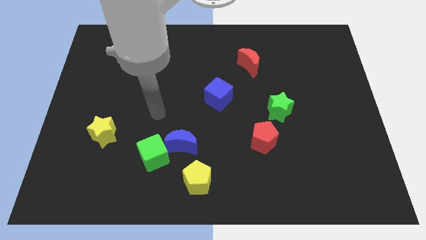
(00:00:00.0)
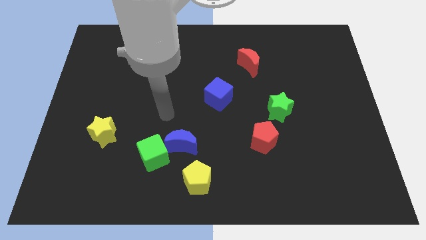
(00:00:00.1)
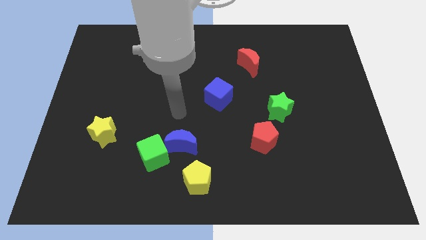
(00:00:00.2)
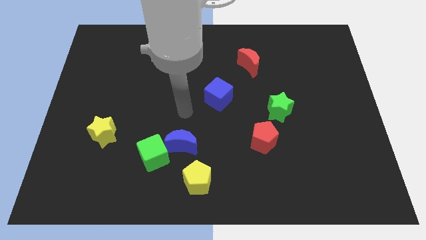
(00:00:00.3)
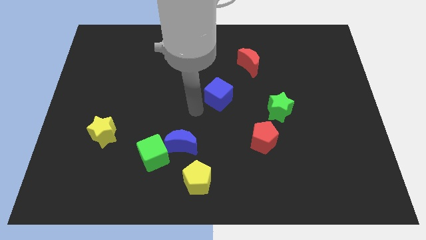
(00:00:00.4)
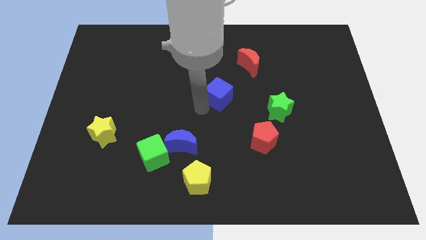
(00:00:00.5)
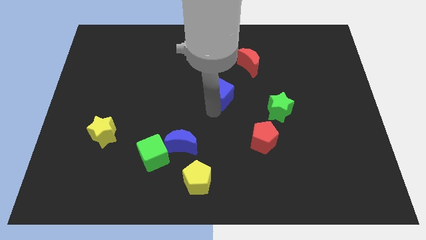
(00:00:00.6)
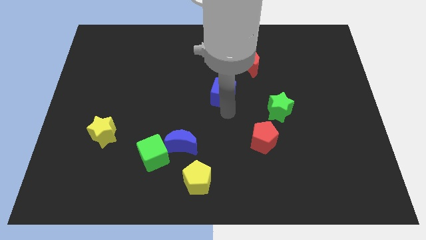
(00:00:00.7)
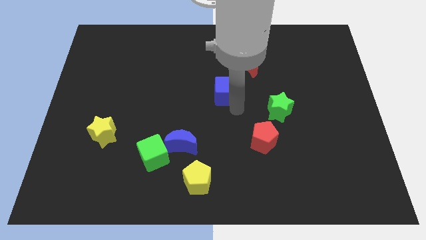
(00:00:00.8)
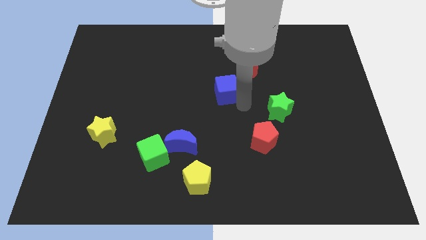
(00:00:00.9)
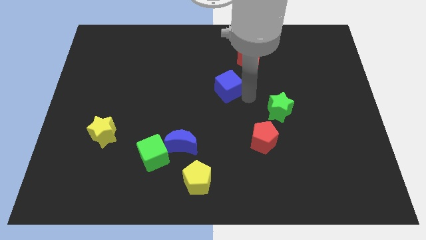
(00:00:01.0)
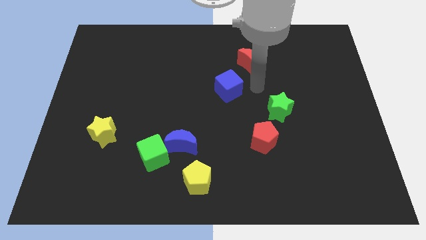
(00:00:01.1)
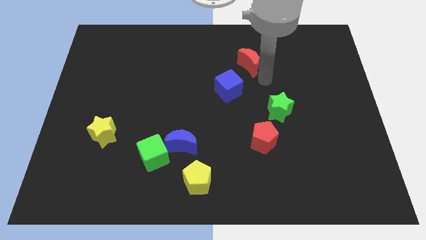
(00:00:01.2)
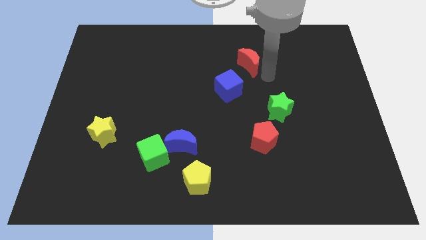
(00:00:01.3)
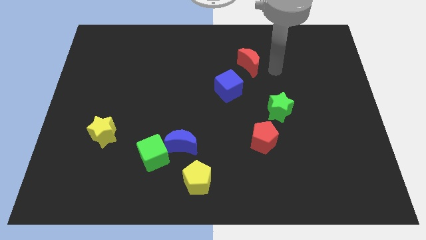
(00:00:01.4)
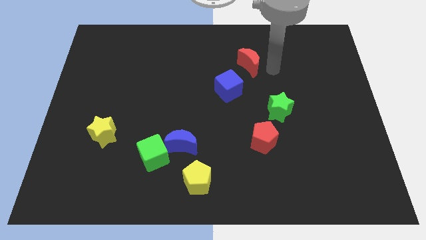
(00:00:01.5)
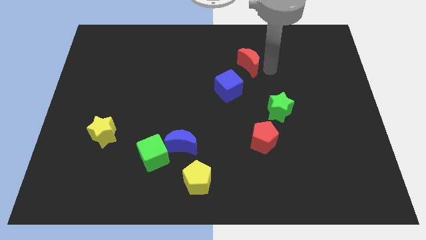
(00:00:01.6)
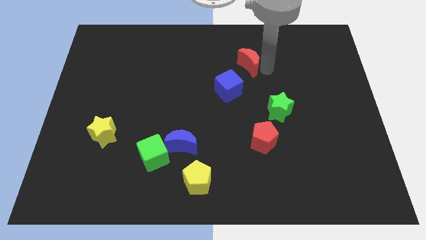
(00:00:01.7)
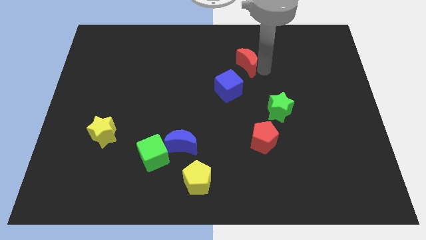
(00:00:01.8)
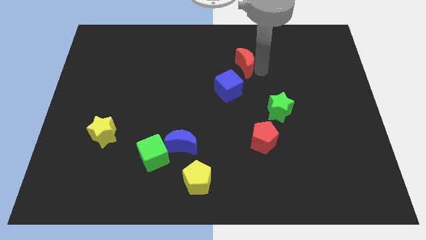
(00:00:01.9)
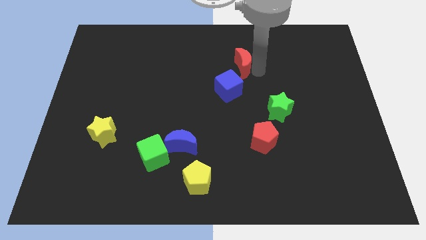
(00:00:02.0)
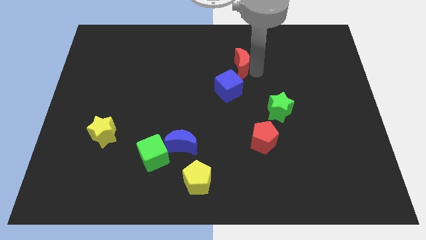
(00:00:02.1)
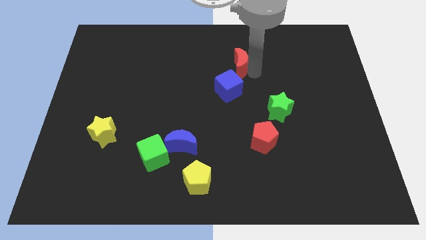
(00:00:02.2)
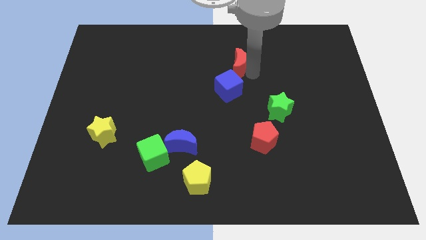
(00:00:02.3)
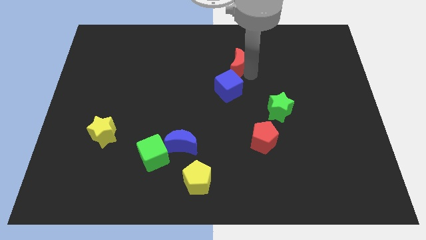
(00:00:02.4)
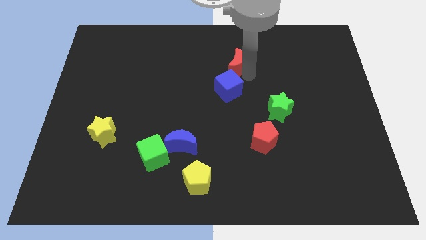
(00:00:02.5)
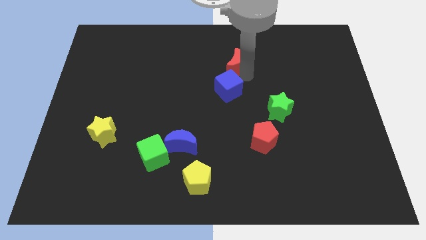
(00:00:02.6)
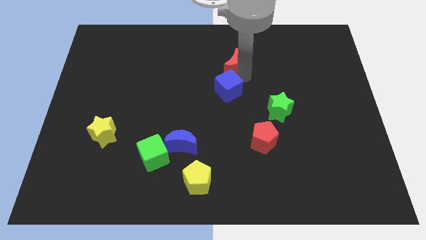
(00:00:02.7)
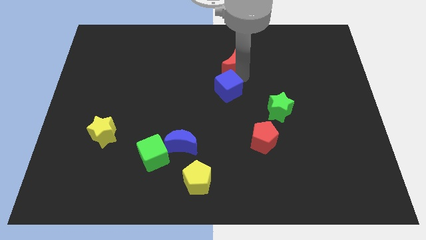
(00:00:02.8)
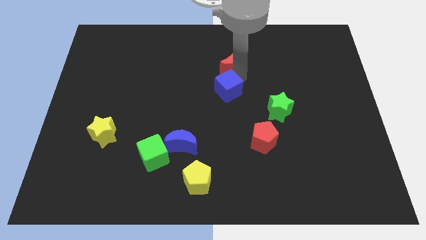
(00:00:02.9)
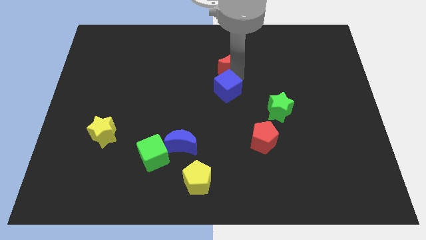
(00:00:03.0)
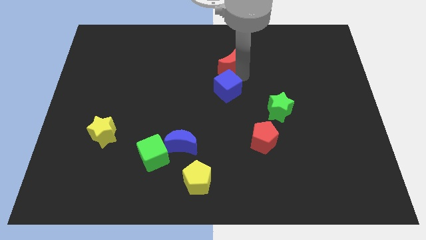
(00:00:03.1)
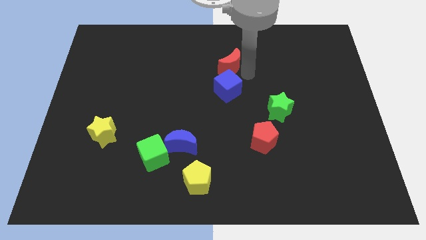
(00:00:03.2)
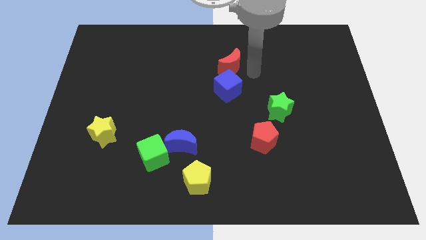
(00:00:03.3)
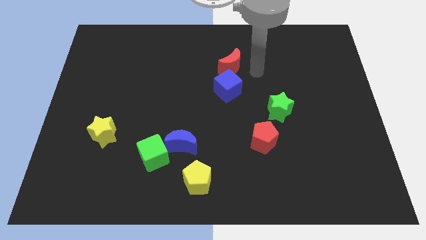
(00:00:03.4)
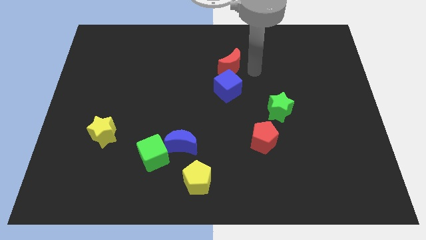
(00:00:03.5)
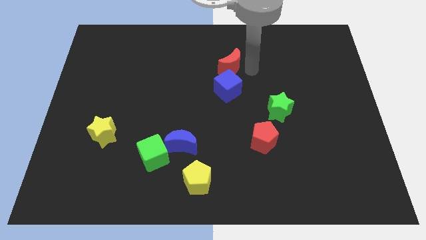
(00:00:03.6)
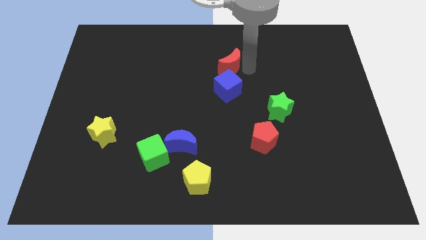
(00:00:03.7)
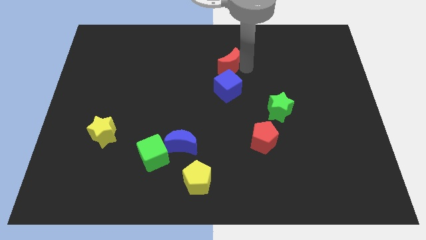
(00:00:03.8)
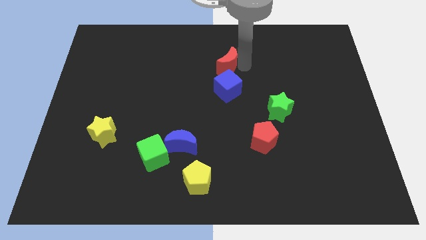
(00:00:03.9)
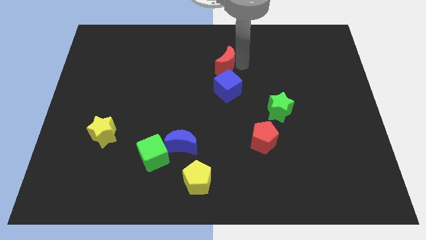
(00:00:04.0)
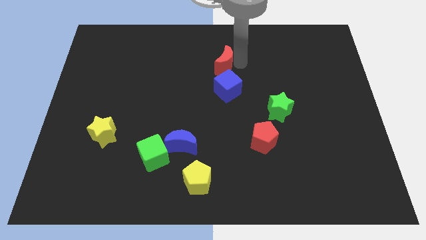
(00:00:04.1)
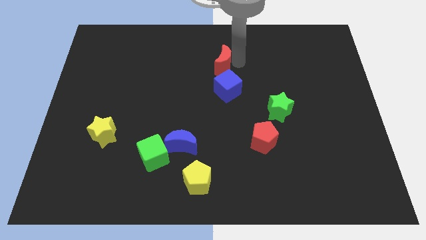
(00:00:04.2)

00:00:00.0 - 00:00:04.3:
move the red moon a bit left

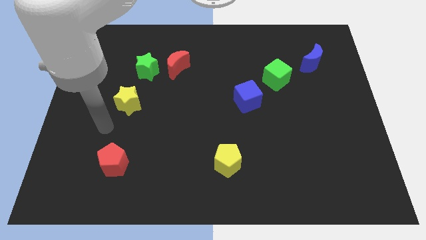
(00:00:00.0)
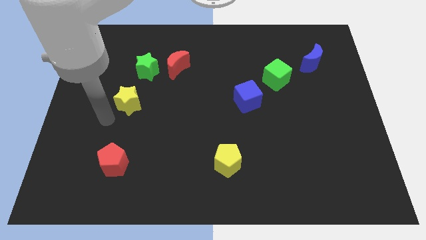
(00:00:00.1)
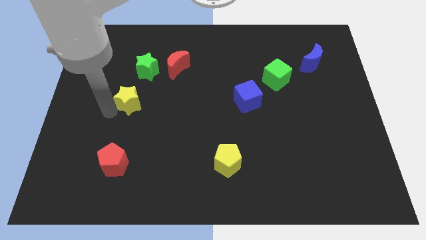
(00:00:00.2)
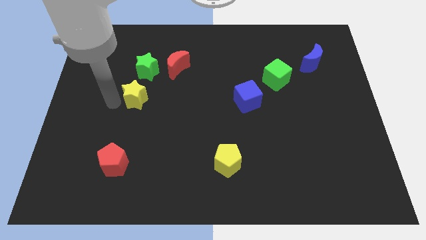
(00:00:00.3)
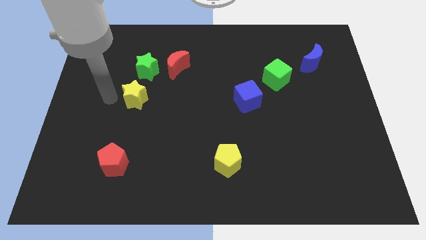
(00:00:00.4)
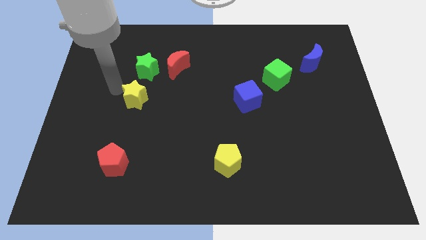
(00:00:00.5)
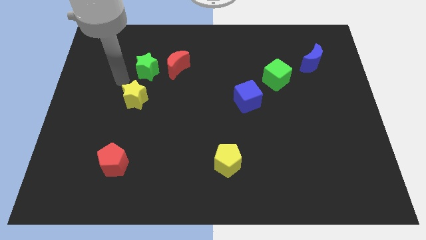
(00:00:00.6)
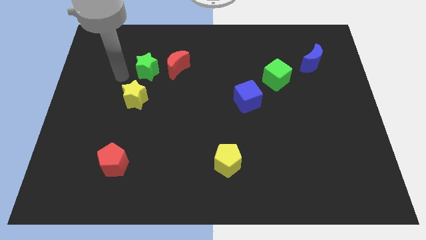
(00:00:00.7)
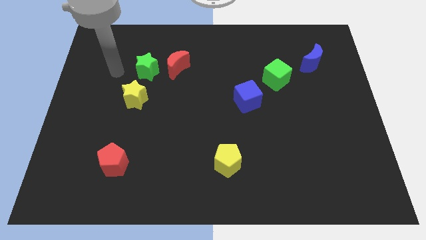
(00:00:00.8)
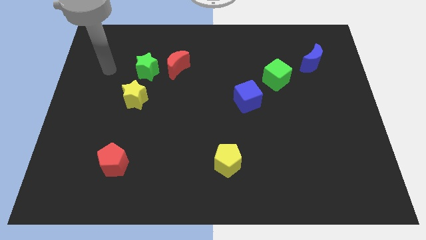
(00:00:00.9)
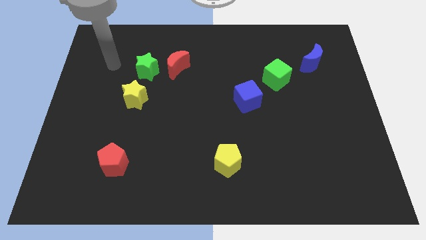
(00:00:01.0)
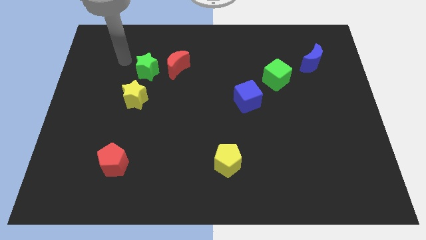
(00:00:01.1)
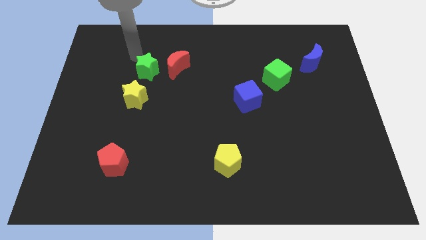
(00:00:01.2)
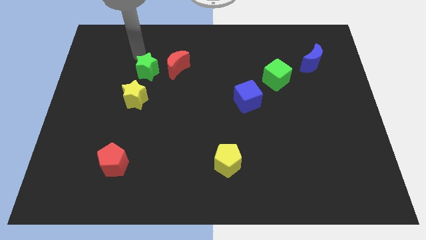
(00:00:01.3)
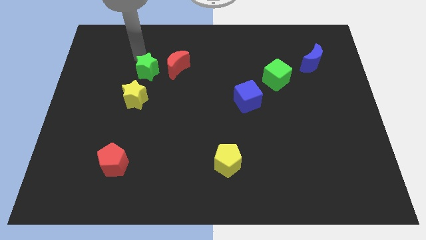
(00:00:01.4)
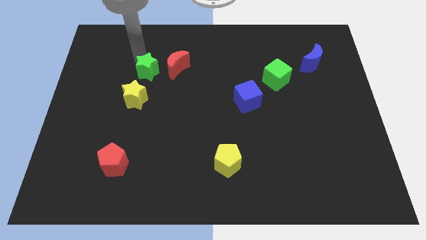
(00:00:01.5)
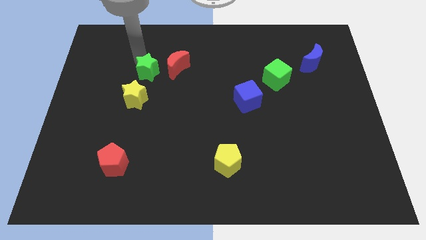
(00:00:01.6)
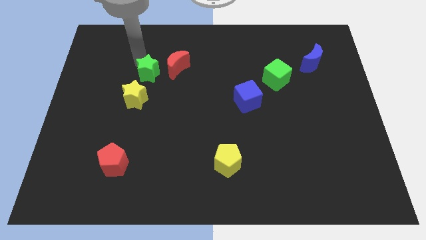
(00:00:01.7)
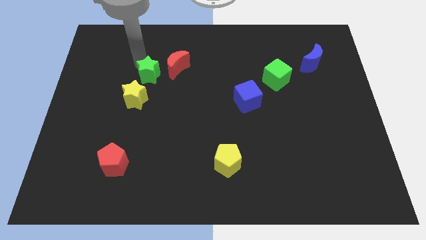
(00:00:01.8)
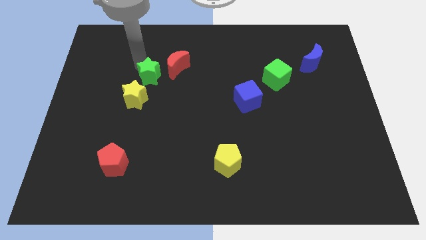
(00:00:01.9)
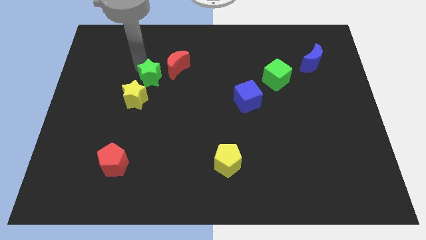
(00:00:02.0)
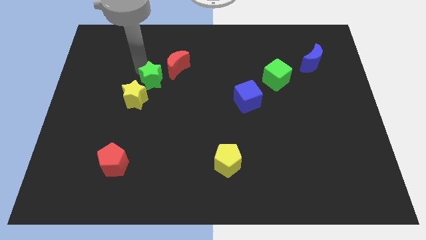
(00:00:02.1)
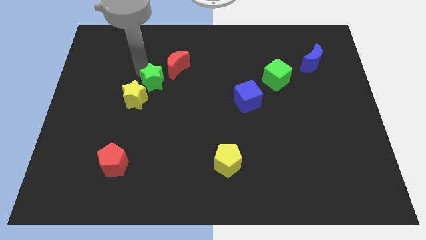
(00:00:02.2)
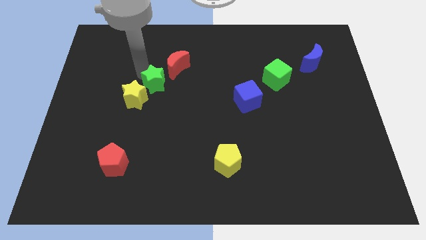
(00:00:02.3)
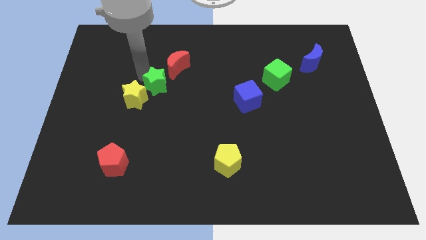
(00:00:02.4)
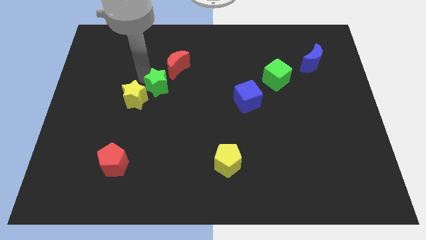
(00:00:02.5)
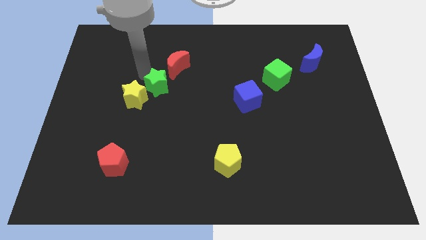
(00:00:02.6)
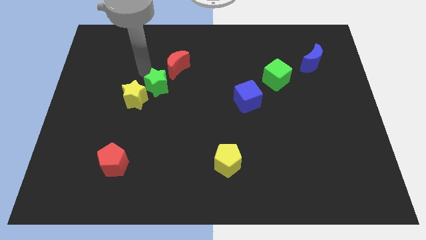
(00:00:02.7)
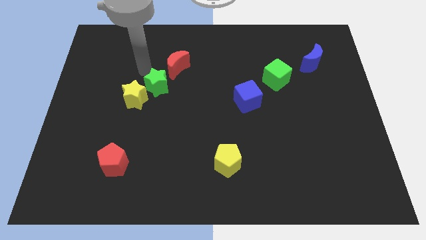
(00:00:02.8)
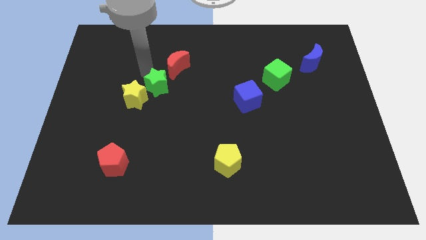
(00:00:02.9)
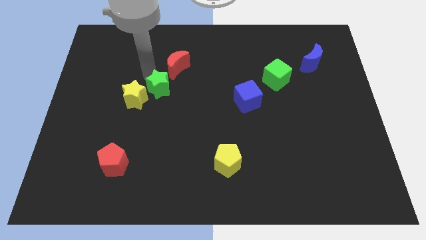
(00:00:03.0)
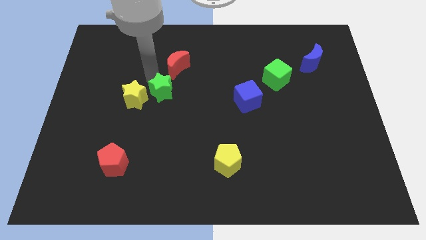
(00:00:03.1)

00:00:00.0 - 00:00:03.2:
slide the green star a little bit down and then right

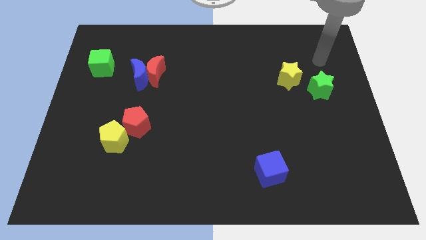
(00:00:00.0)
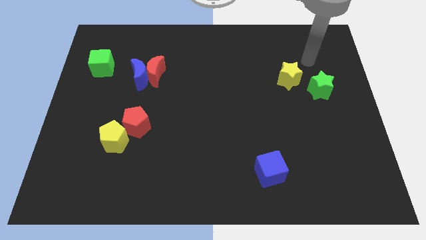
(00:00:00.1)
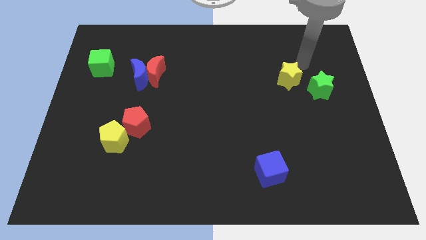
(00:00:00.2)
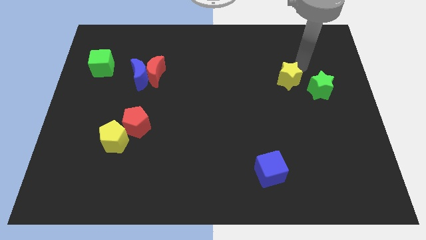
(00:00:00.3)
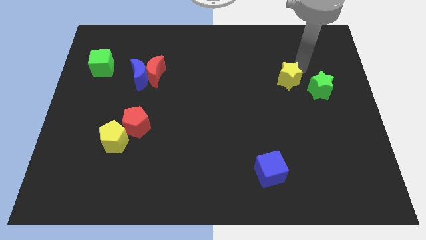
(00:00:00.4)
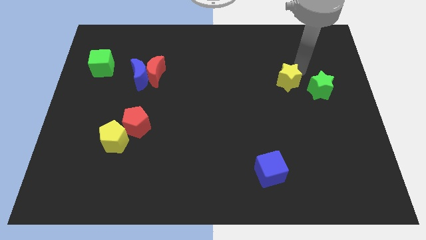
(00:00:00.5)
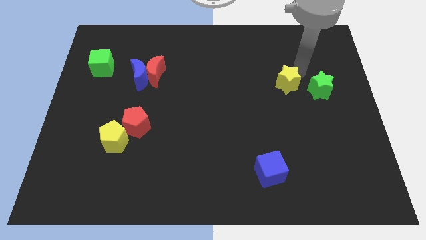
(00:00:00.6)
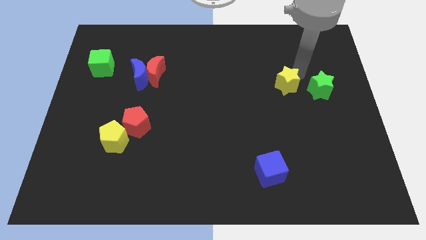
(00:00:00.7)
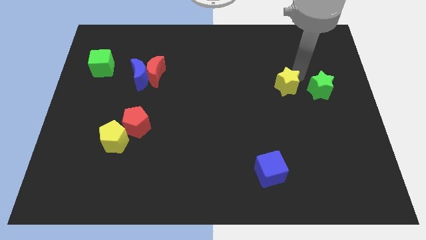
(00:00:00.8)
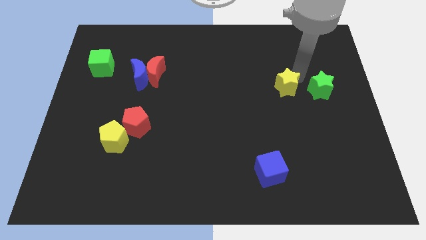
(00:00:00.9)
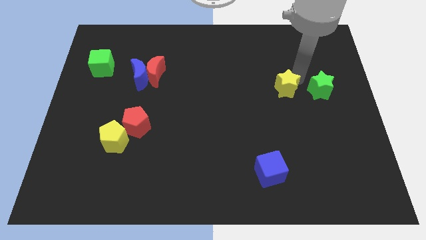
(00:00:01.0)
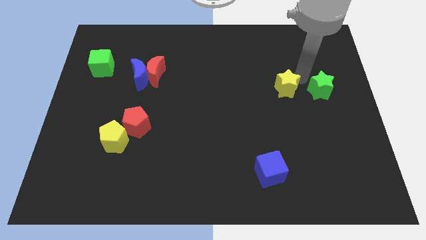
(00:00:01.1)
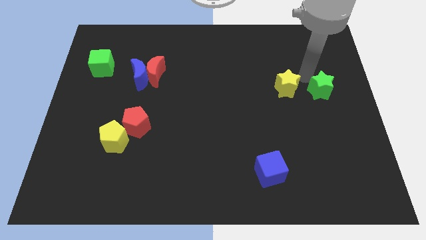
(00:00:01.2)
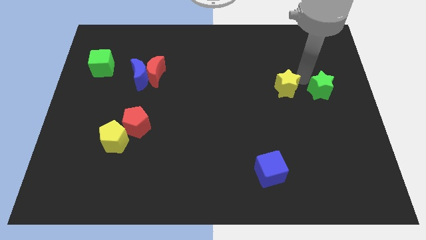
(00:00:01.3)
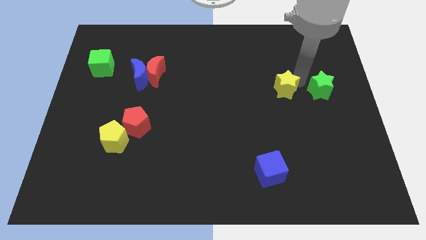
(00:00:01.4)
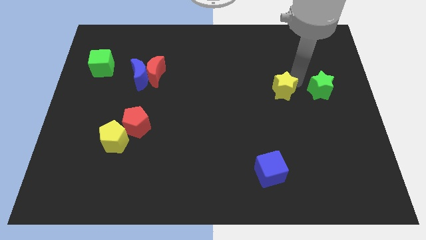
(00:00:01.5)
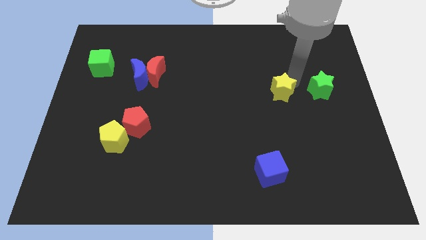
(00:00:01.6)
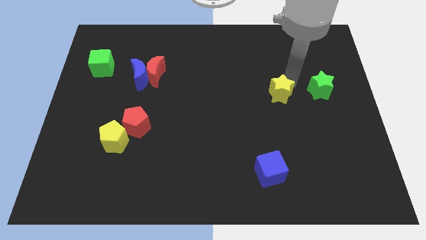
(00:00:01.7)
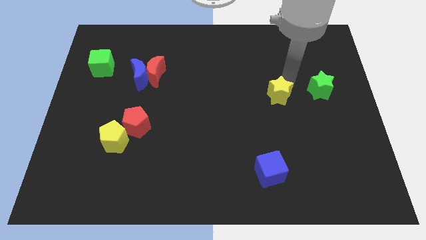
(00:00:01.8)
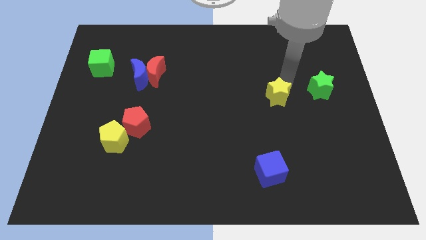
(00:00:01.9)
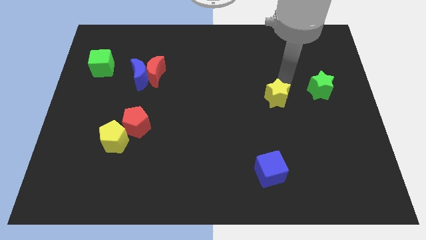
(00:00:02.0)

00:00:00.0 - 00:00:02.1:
slide the yellow star diagonally down and to the left a little bit
